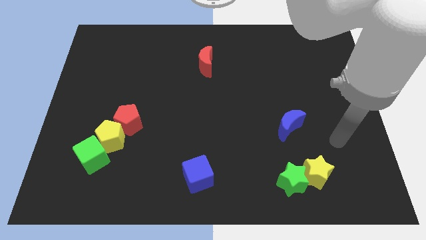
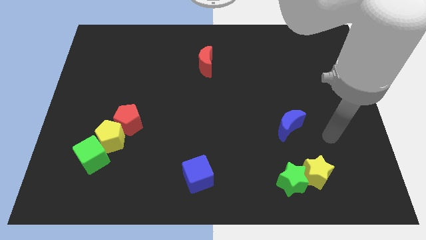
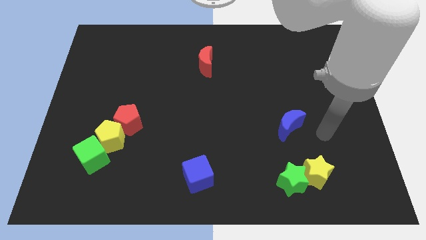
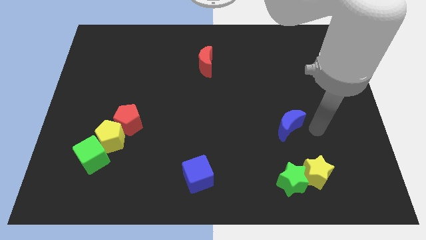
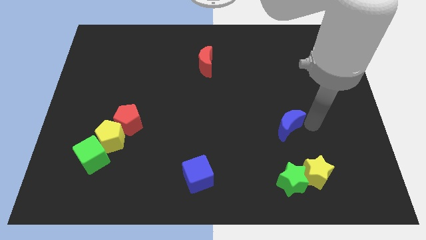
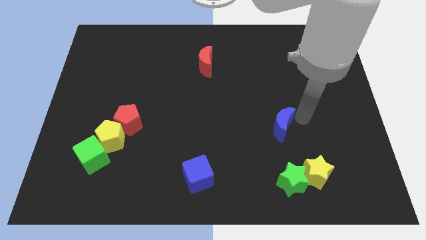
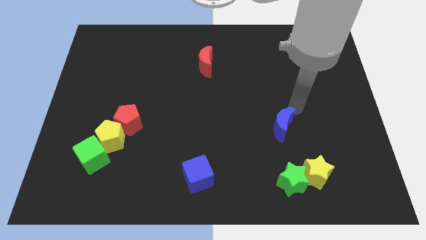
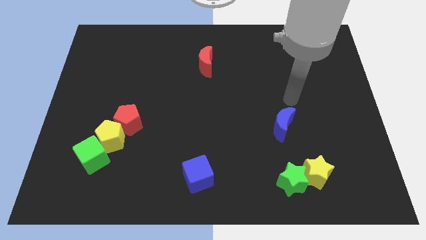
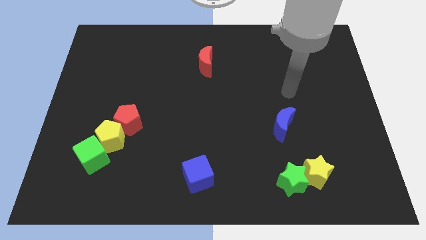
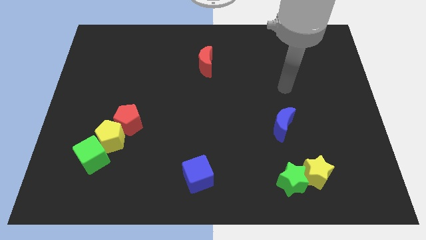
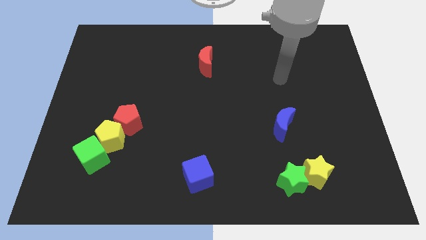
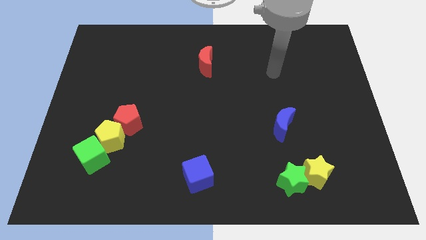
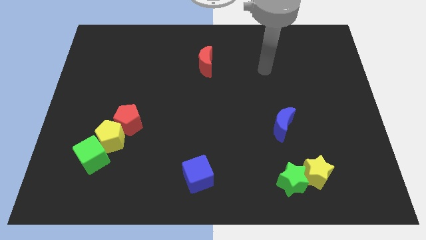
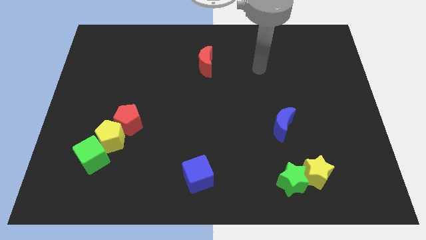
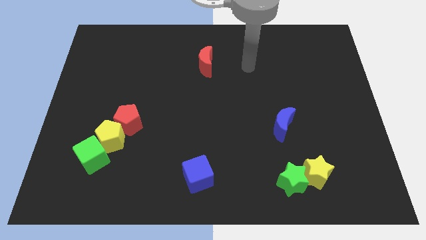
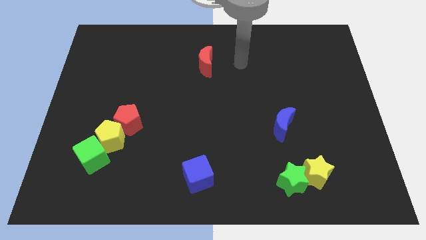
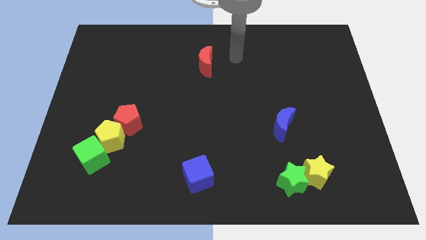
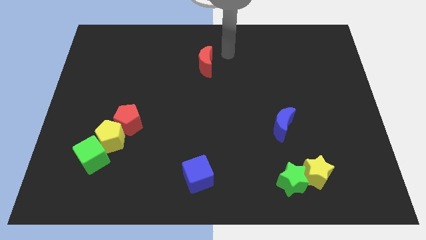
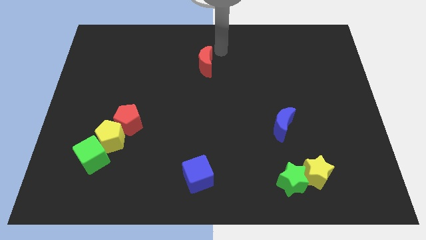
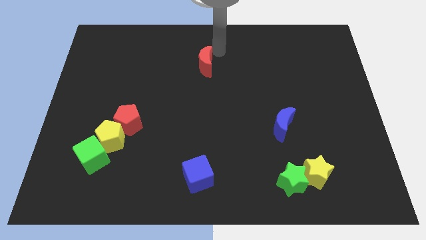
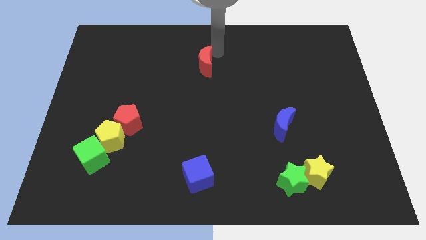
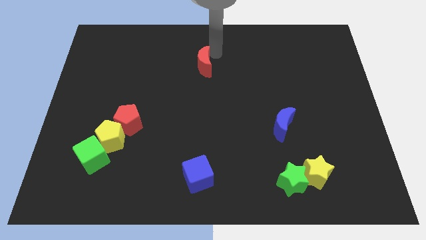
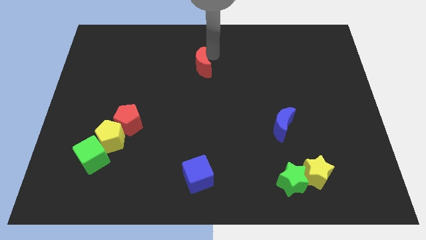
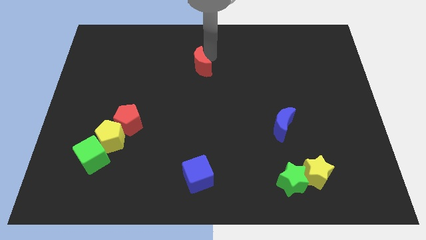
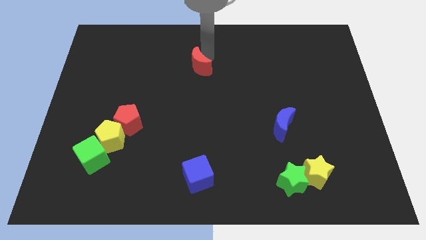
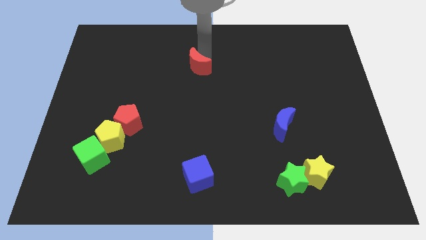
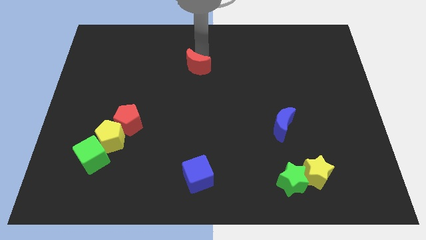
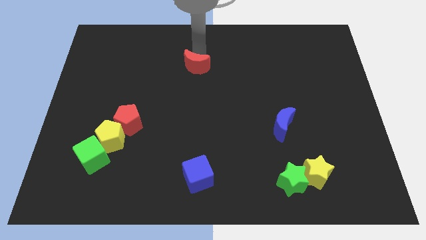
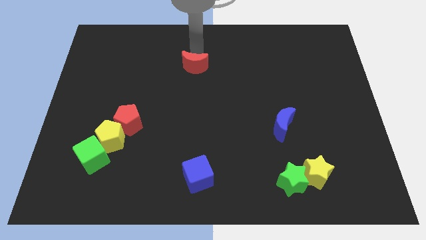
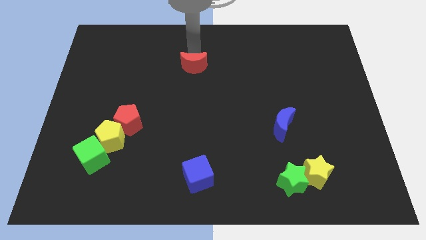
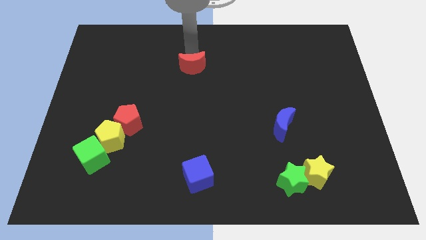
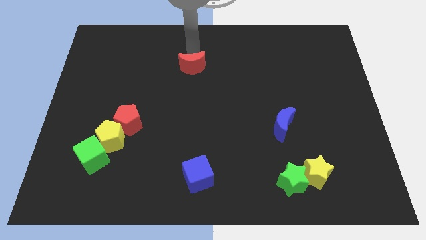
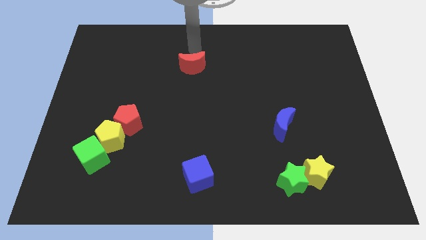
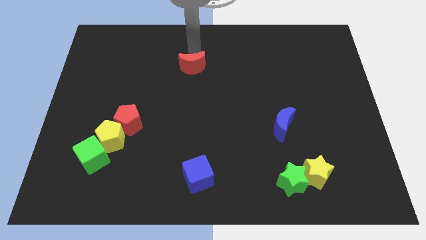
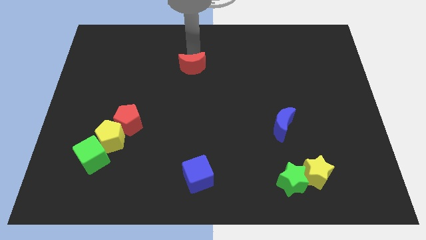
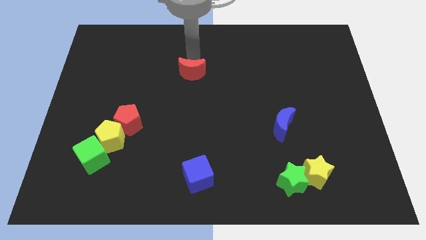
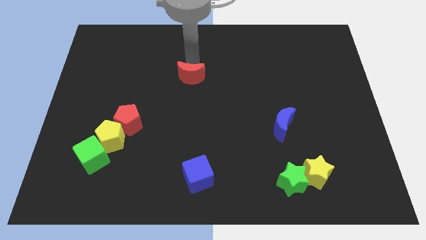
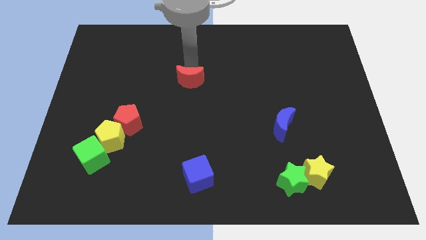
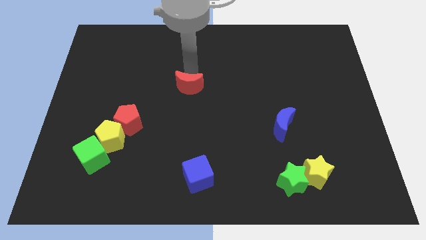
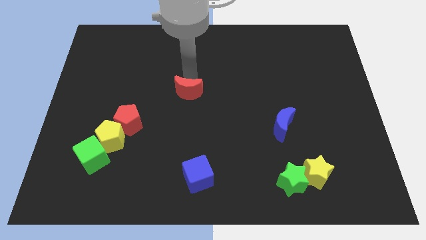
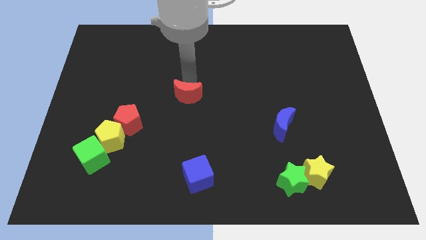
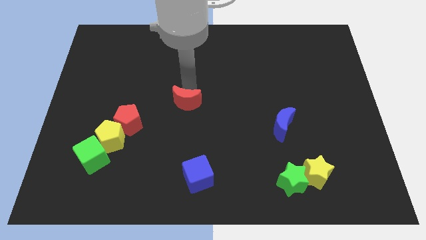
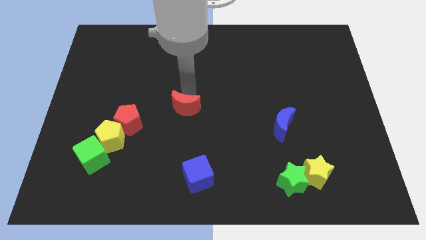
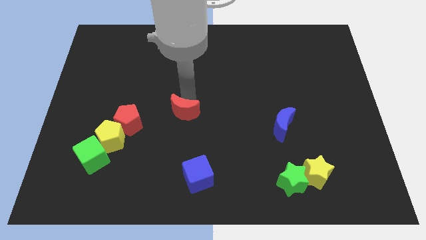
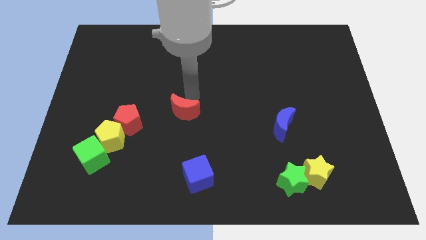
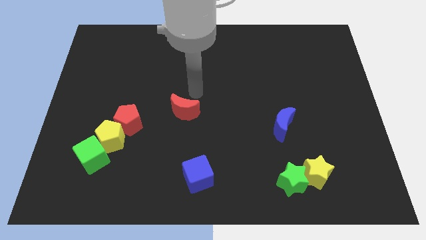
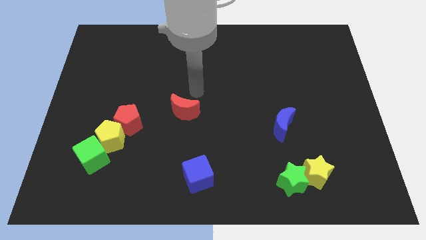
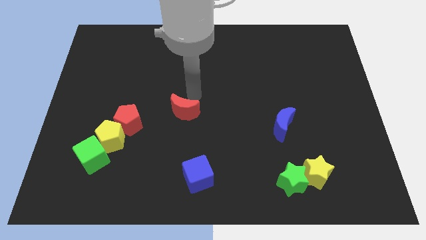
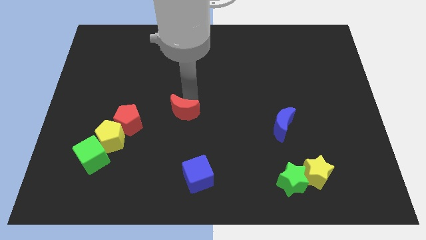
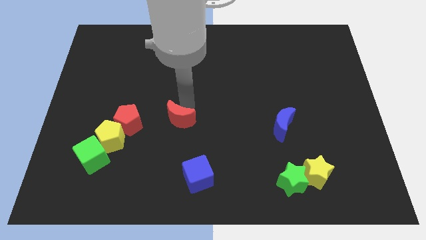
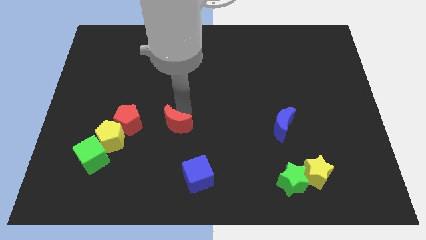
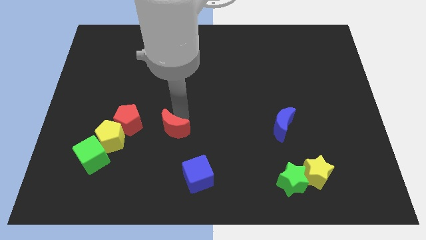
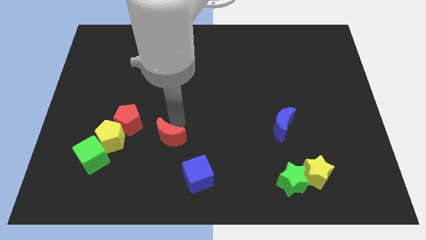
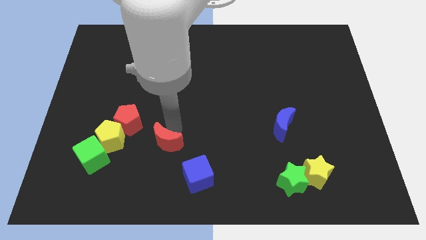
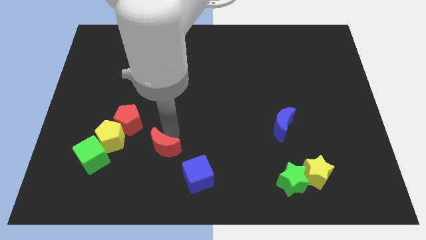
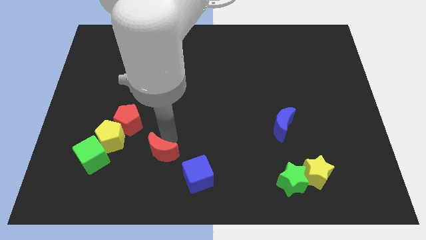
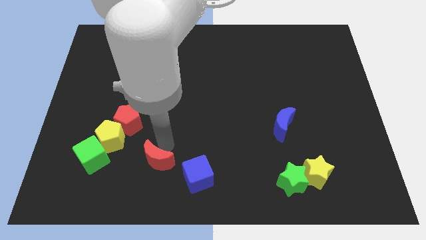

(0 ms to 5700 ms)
put the red moon to the left of the blue cube

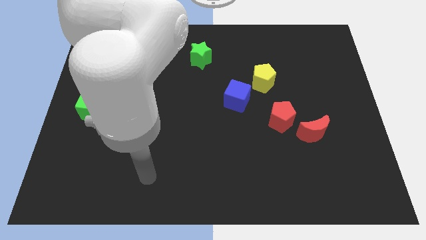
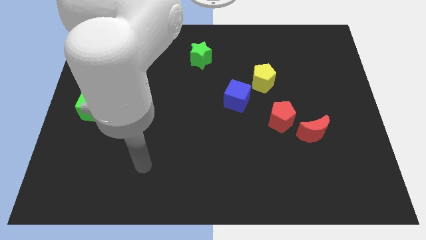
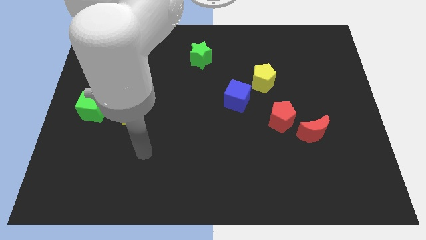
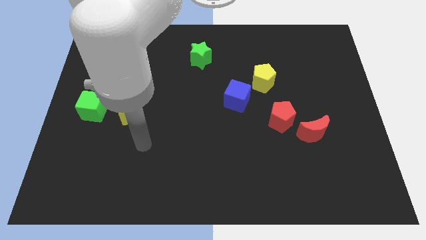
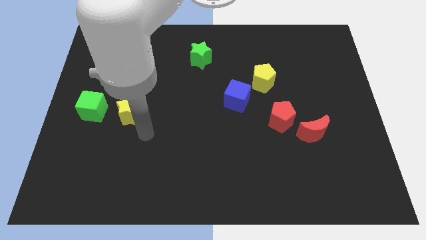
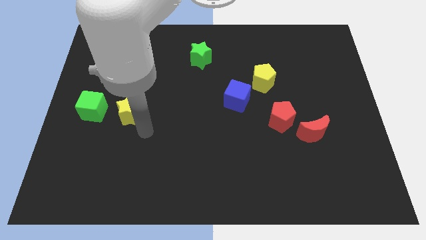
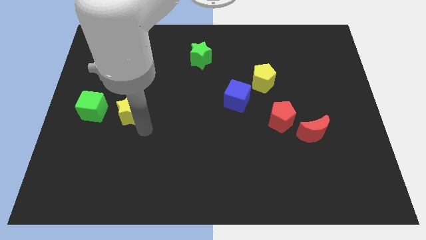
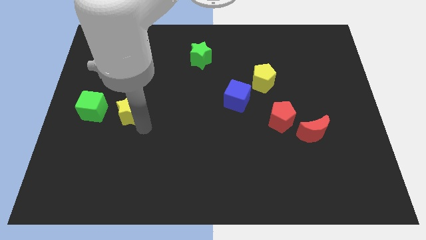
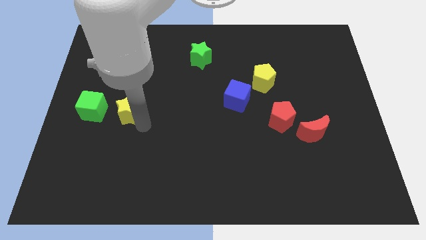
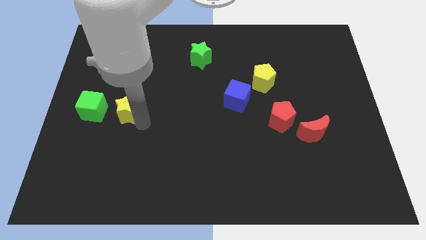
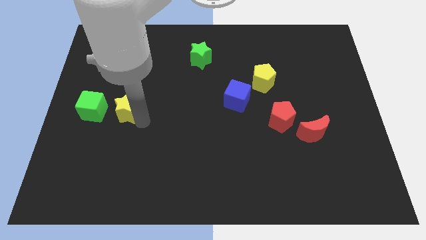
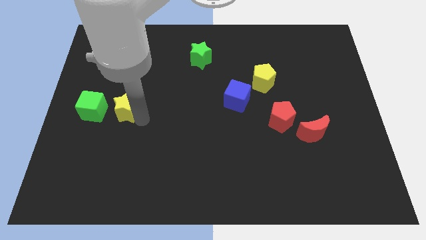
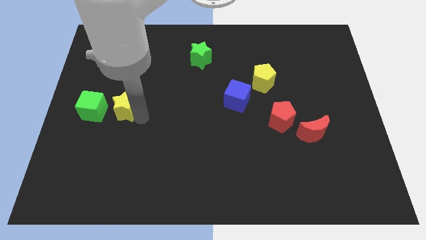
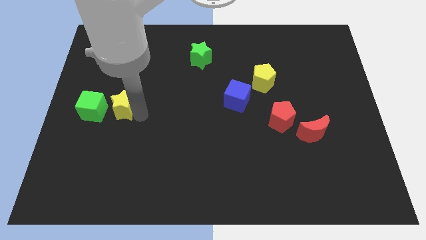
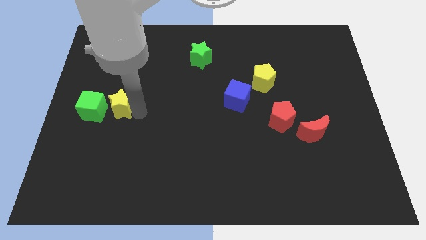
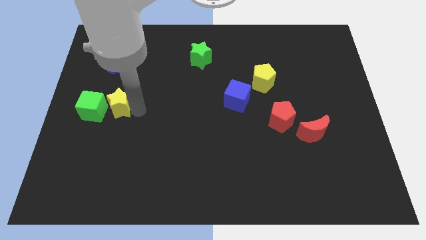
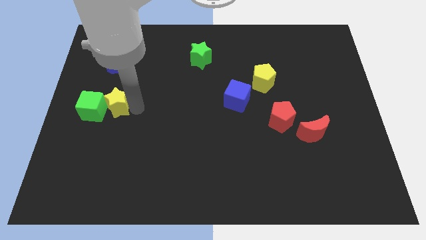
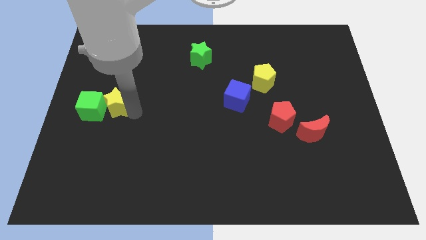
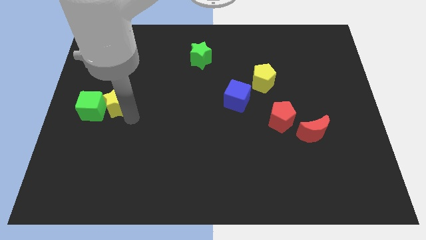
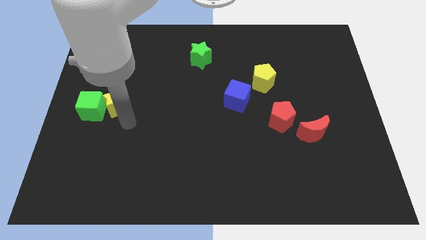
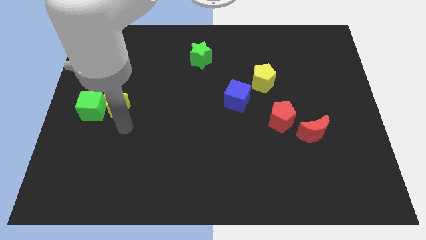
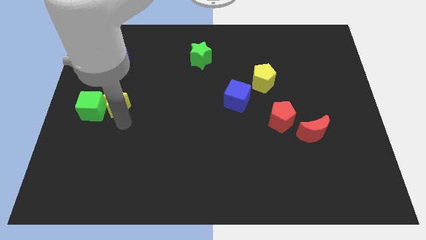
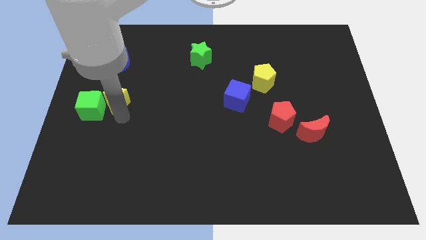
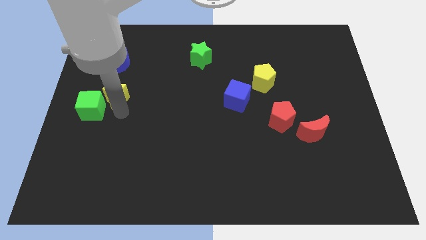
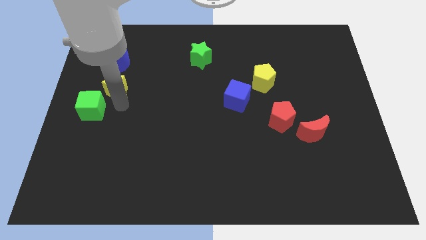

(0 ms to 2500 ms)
put the yellow star to the top side of the green cube
